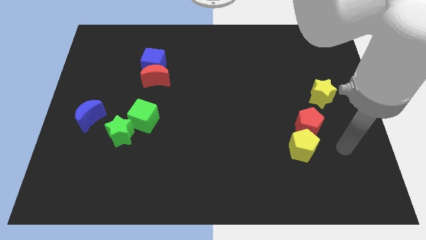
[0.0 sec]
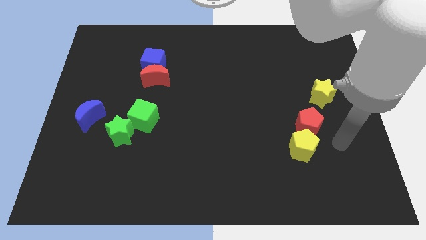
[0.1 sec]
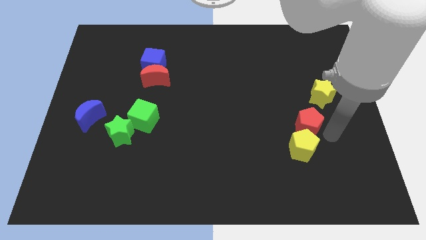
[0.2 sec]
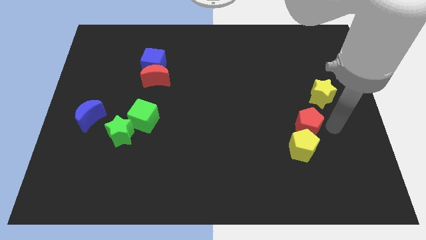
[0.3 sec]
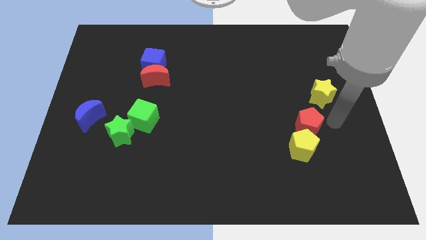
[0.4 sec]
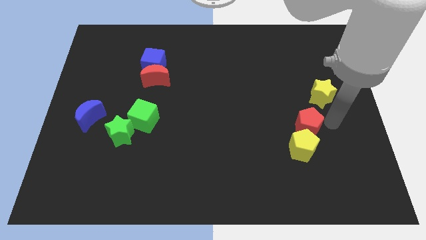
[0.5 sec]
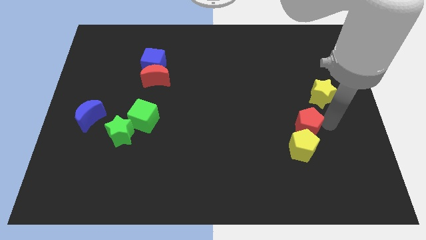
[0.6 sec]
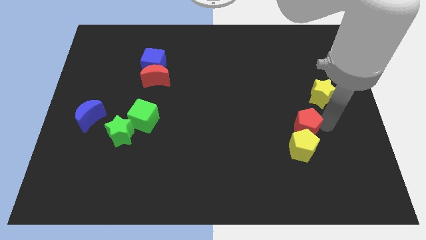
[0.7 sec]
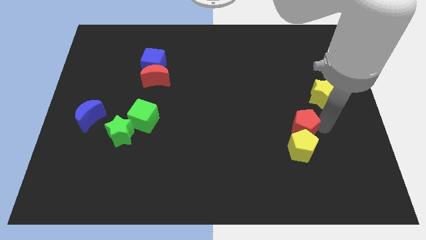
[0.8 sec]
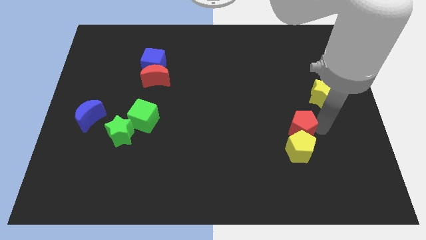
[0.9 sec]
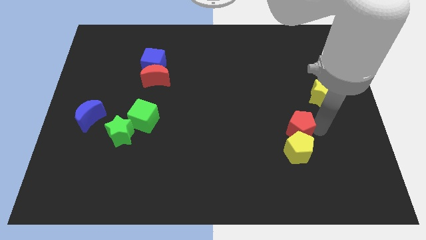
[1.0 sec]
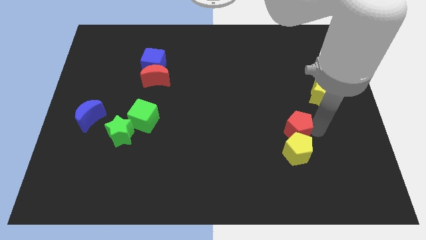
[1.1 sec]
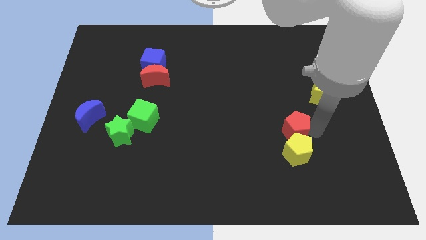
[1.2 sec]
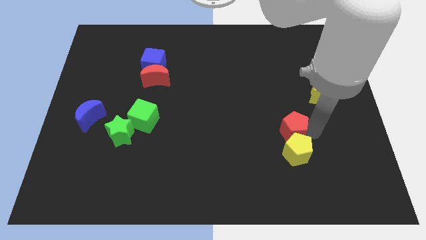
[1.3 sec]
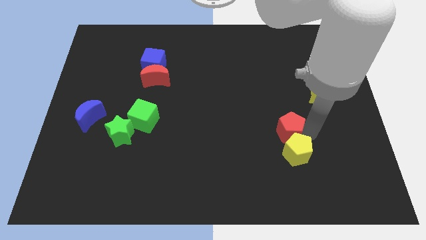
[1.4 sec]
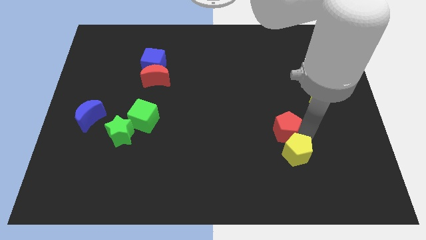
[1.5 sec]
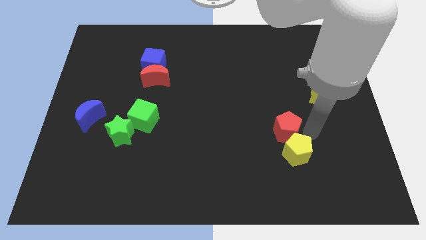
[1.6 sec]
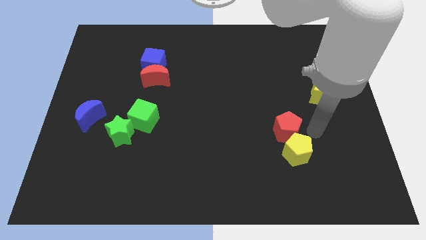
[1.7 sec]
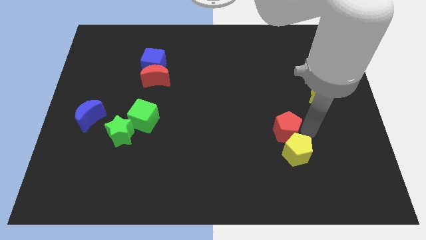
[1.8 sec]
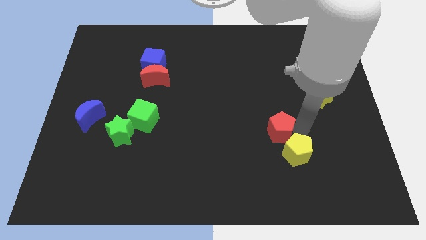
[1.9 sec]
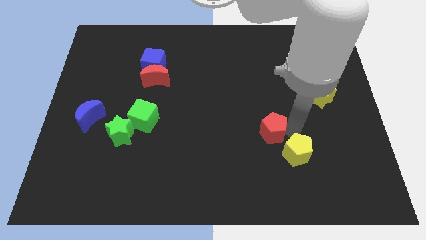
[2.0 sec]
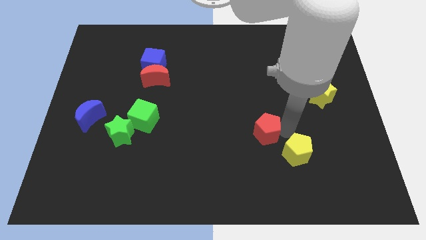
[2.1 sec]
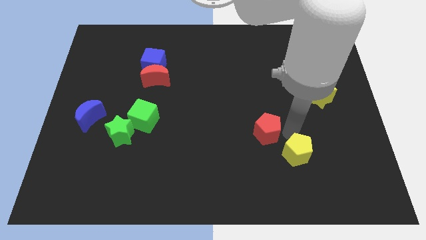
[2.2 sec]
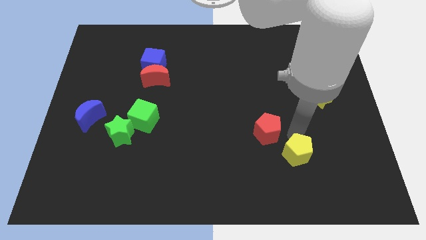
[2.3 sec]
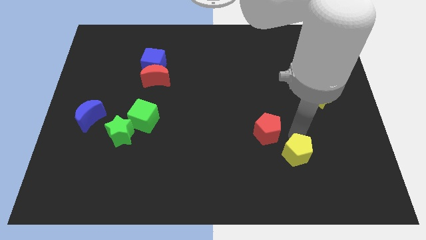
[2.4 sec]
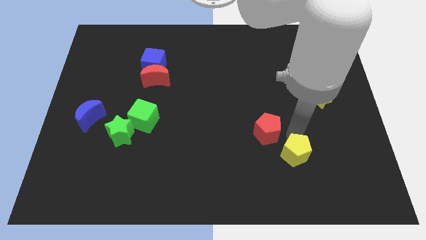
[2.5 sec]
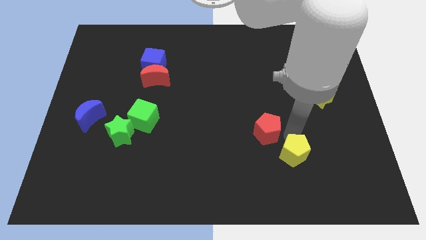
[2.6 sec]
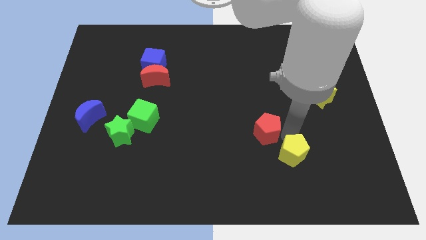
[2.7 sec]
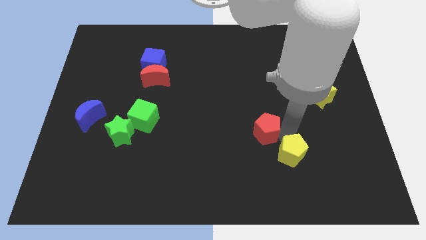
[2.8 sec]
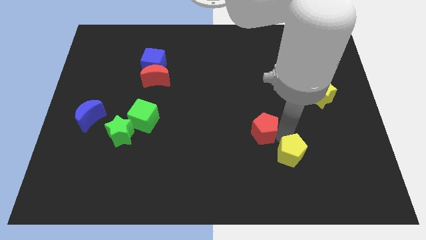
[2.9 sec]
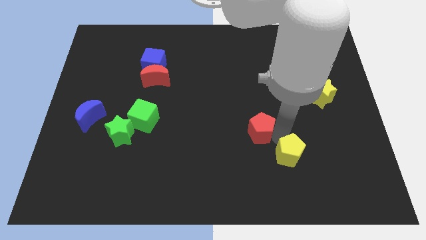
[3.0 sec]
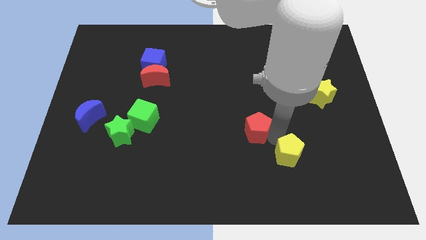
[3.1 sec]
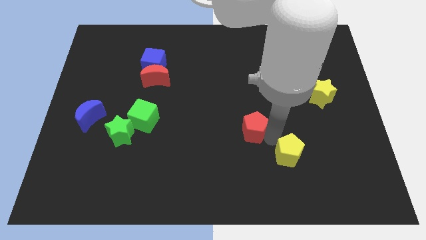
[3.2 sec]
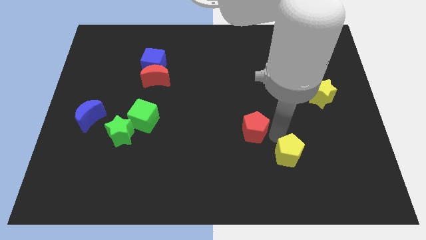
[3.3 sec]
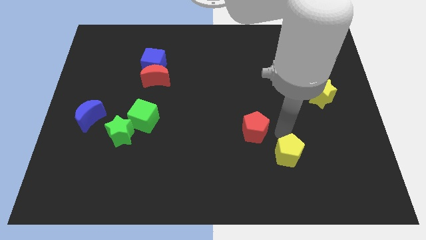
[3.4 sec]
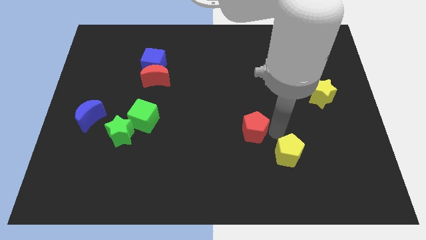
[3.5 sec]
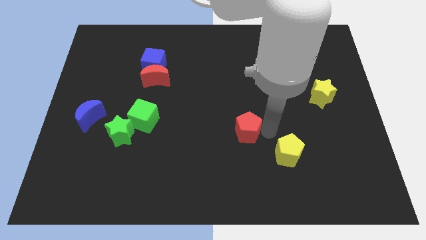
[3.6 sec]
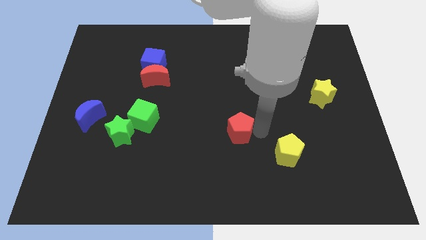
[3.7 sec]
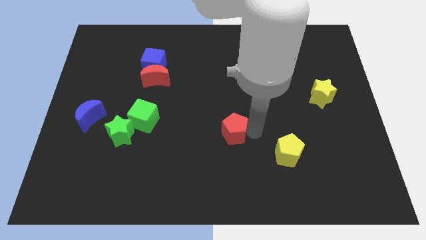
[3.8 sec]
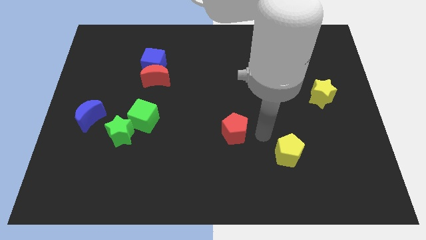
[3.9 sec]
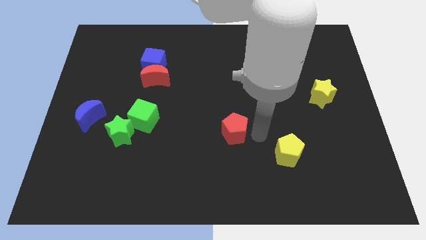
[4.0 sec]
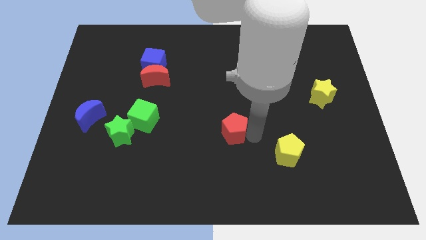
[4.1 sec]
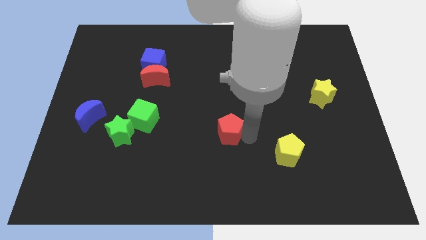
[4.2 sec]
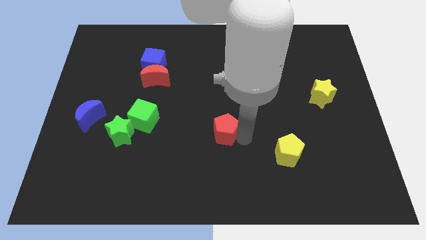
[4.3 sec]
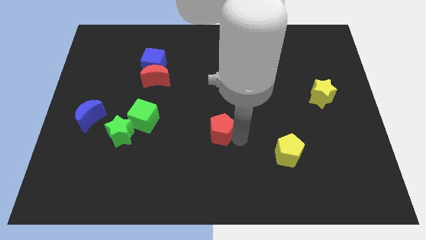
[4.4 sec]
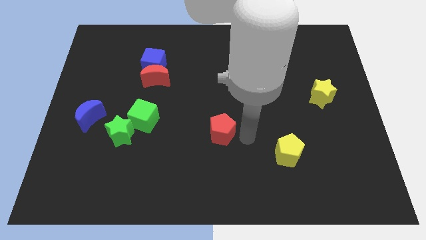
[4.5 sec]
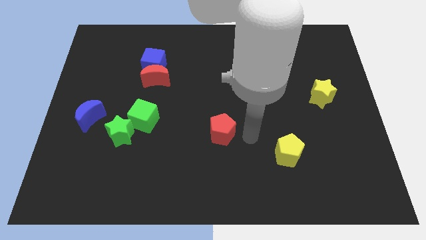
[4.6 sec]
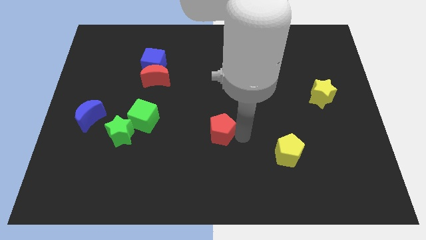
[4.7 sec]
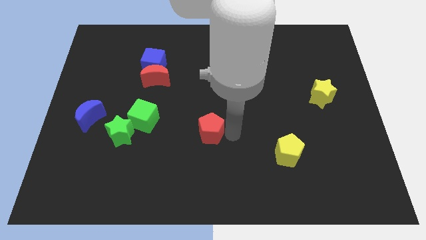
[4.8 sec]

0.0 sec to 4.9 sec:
slide the red pentagon left

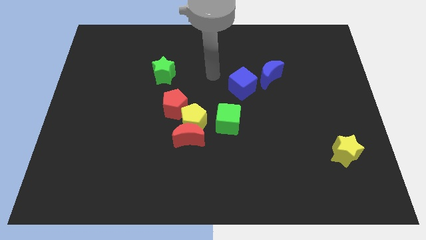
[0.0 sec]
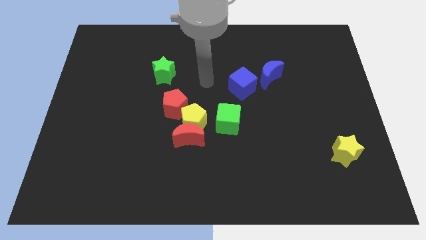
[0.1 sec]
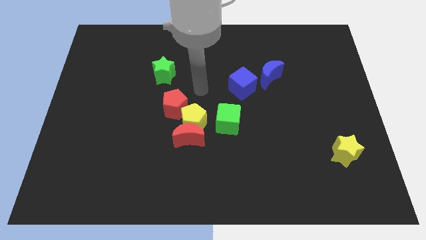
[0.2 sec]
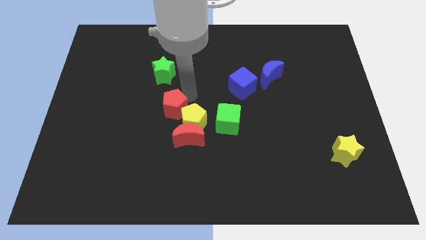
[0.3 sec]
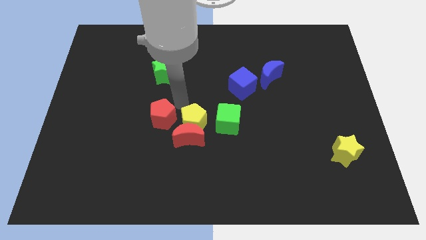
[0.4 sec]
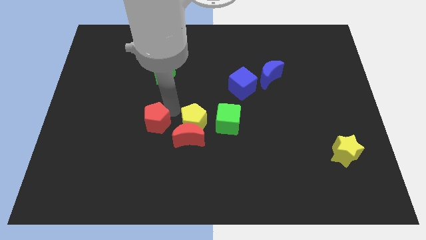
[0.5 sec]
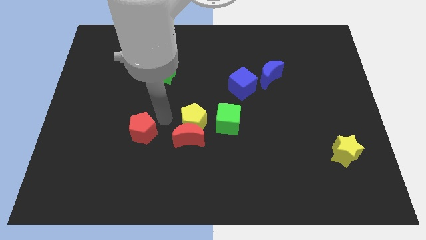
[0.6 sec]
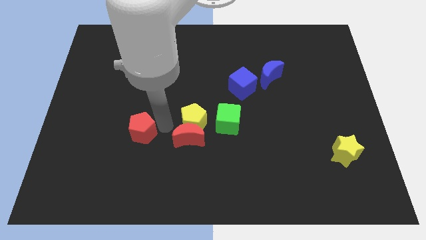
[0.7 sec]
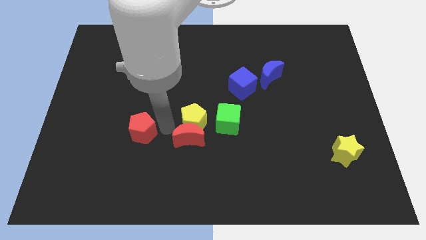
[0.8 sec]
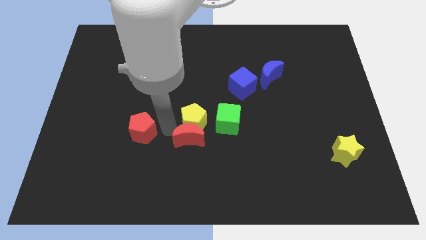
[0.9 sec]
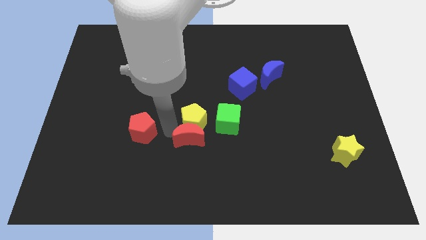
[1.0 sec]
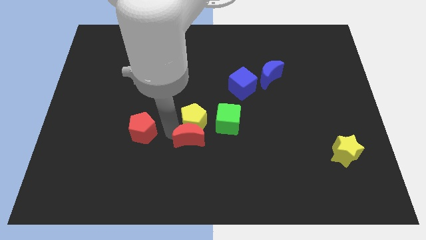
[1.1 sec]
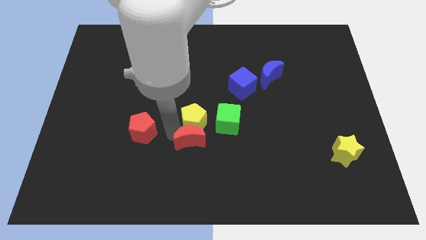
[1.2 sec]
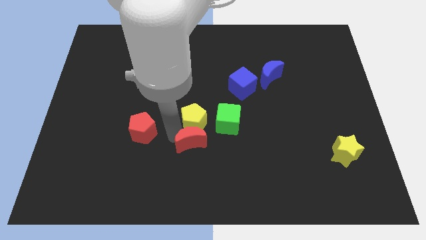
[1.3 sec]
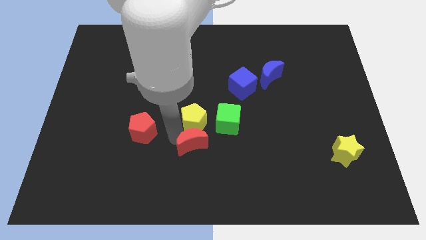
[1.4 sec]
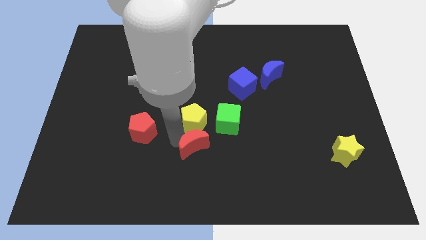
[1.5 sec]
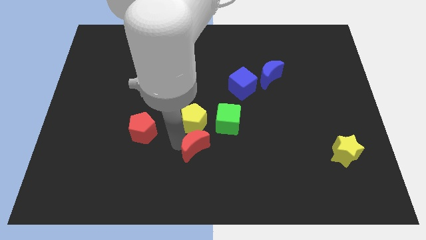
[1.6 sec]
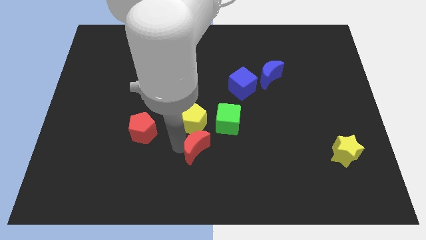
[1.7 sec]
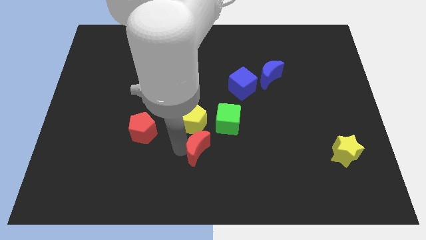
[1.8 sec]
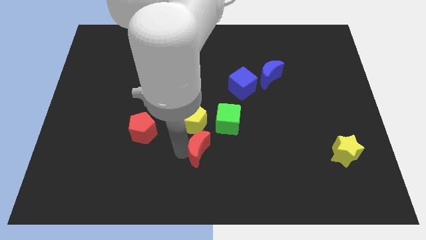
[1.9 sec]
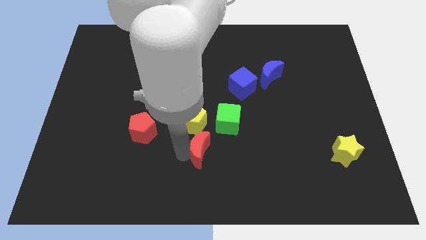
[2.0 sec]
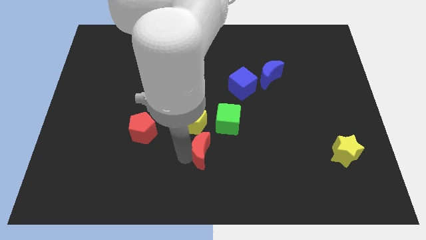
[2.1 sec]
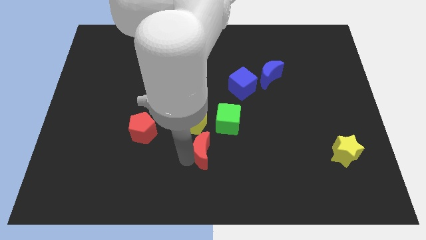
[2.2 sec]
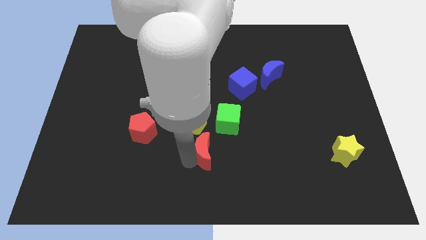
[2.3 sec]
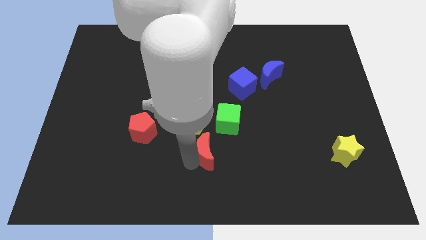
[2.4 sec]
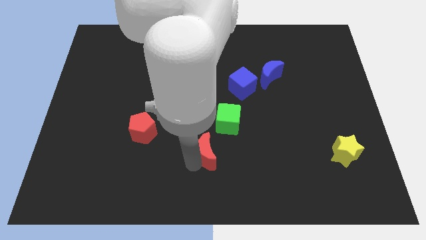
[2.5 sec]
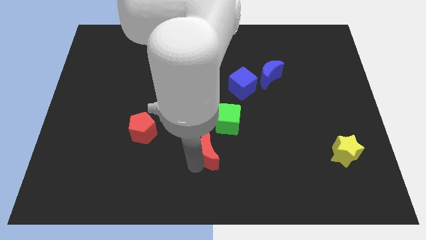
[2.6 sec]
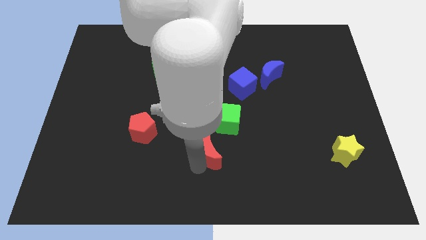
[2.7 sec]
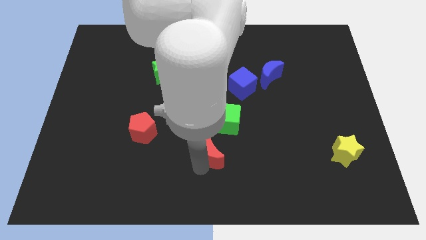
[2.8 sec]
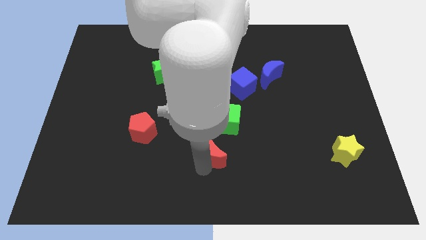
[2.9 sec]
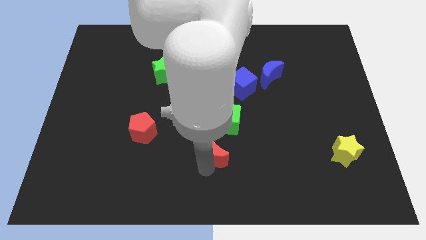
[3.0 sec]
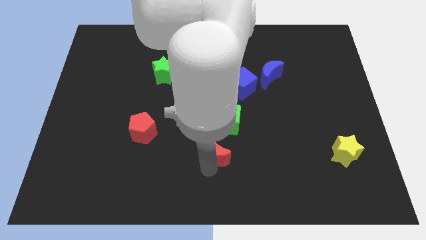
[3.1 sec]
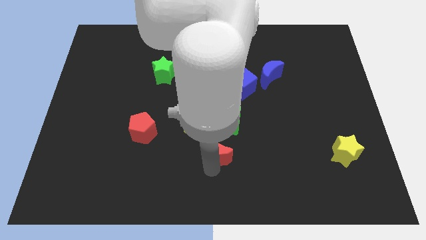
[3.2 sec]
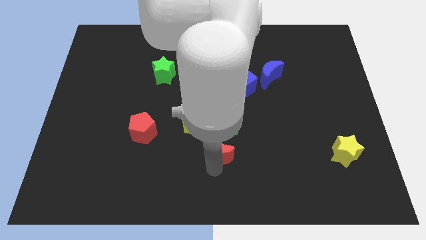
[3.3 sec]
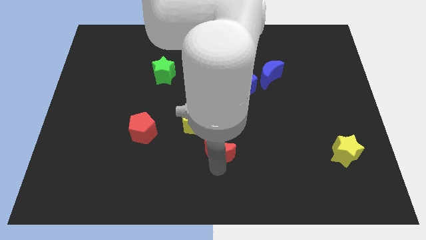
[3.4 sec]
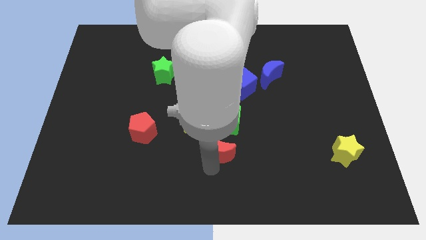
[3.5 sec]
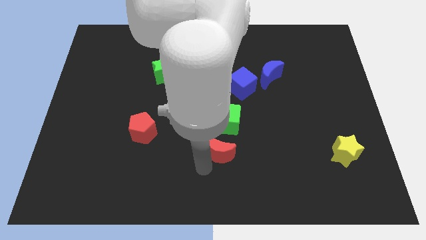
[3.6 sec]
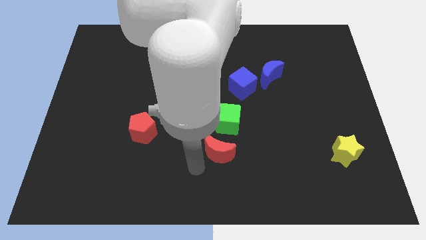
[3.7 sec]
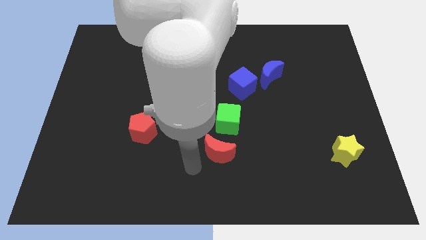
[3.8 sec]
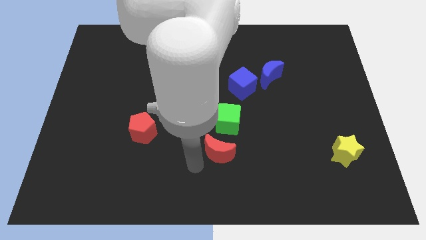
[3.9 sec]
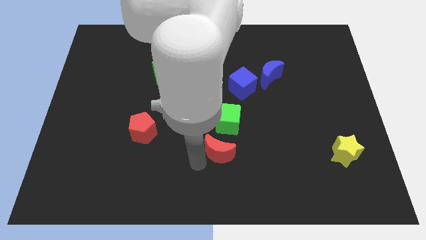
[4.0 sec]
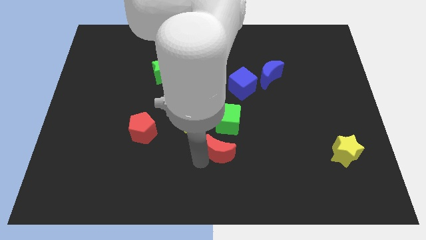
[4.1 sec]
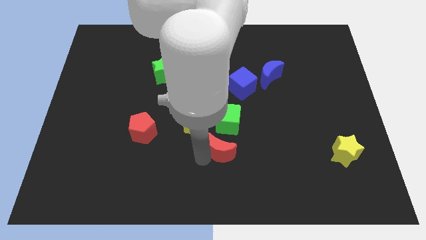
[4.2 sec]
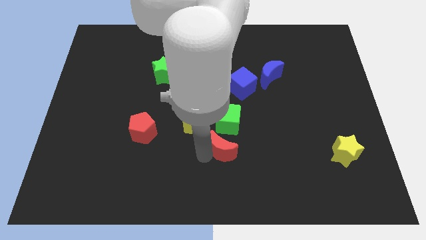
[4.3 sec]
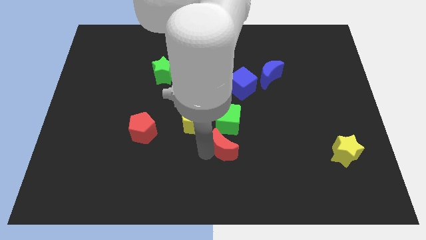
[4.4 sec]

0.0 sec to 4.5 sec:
move the red moon a bit right
